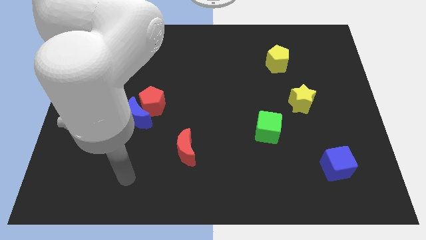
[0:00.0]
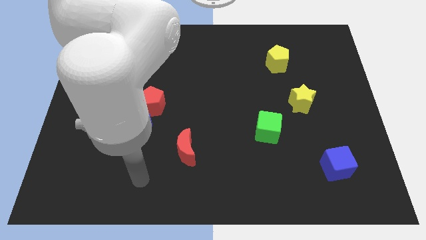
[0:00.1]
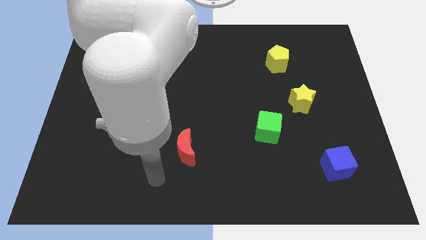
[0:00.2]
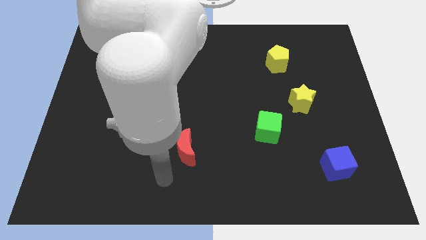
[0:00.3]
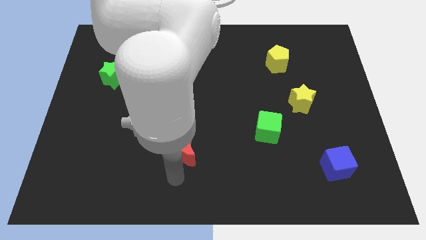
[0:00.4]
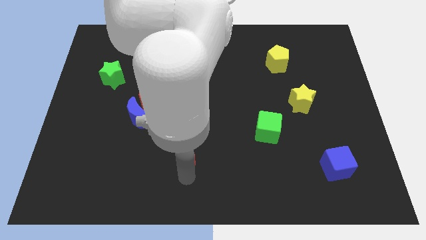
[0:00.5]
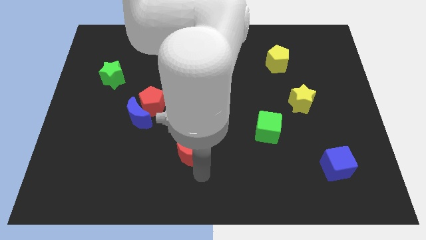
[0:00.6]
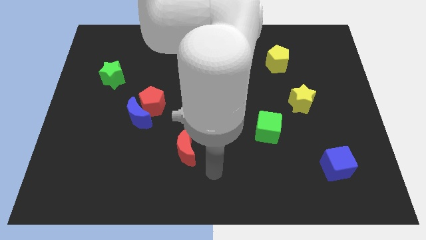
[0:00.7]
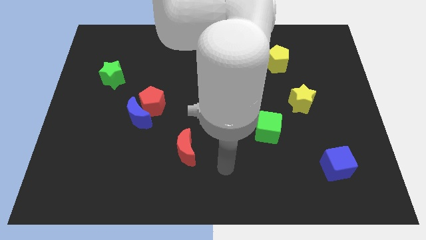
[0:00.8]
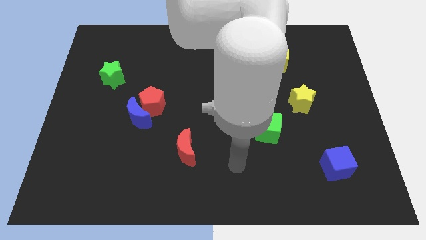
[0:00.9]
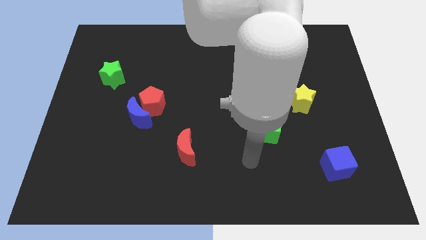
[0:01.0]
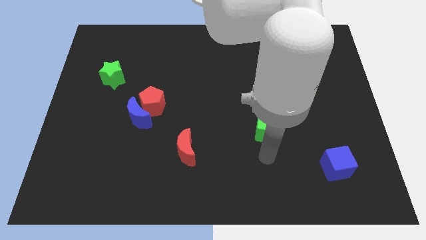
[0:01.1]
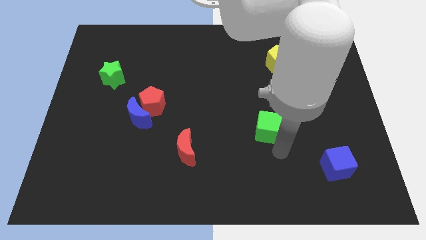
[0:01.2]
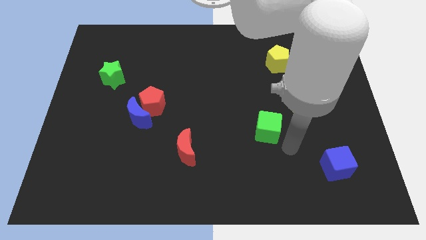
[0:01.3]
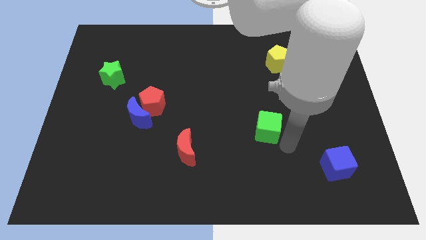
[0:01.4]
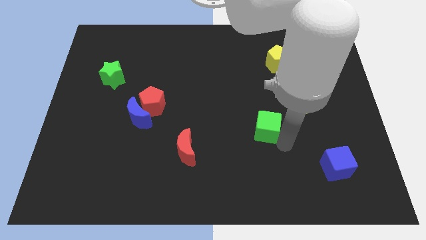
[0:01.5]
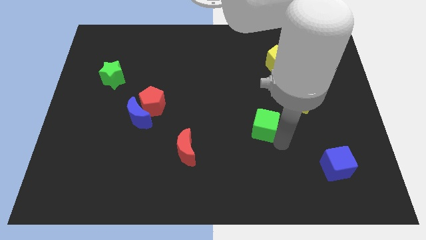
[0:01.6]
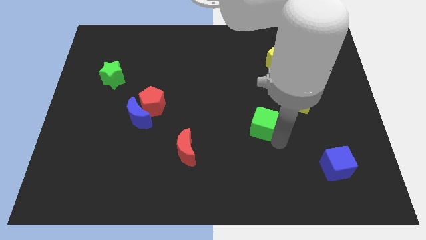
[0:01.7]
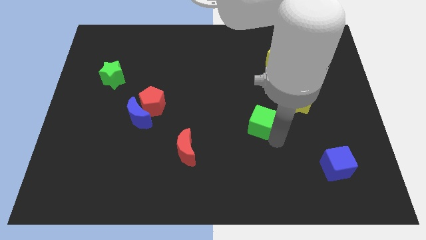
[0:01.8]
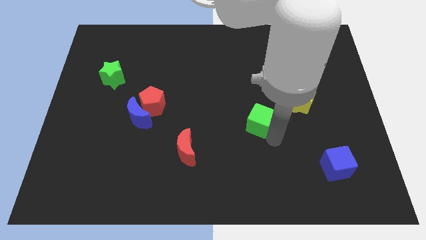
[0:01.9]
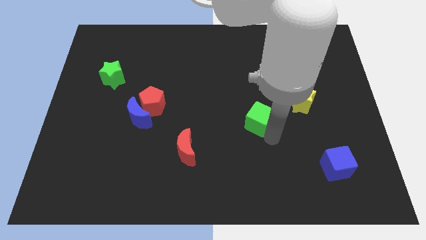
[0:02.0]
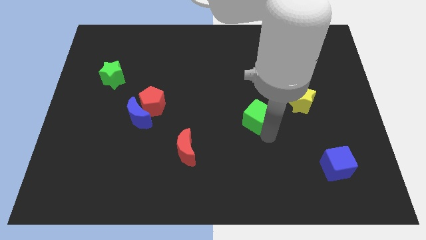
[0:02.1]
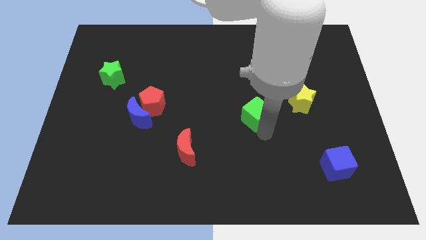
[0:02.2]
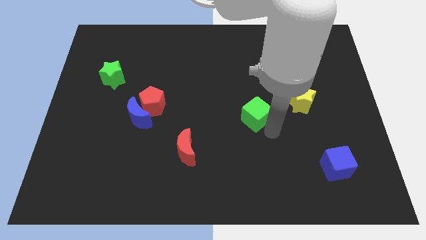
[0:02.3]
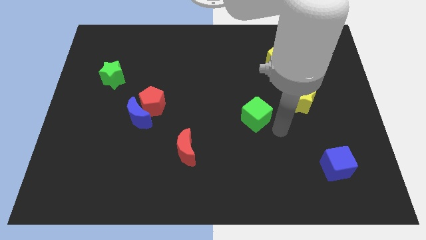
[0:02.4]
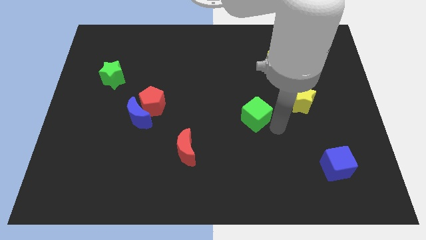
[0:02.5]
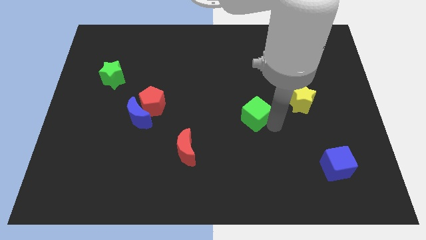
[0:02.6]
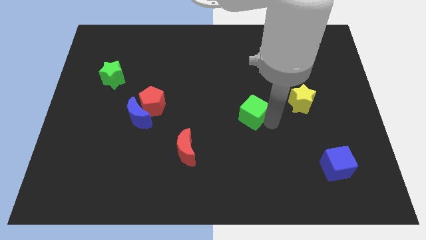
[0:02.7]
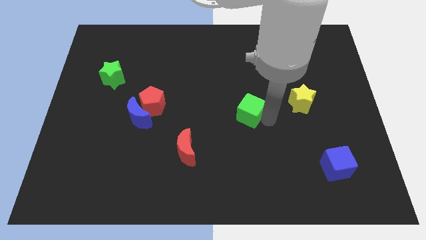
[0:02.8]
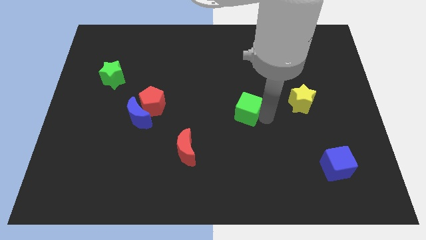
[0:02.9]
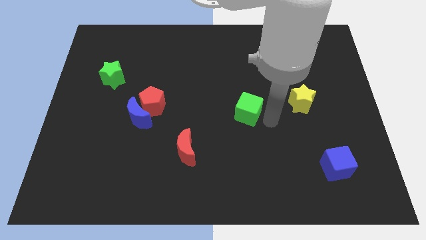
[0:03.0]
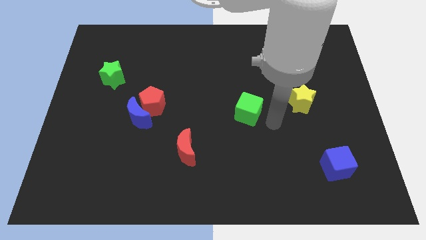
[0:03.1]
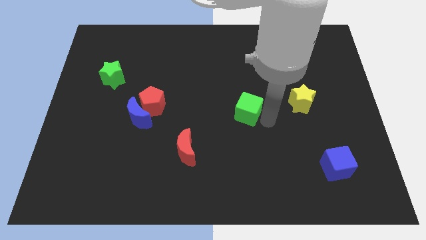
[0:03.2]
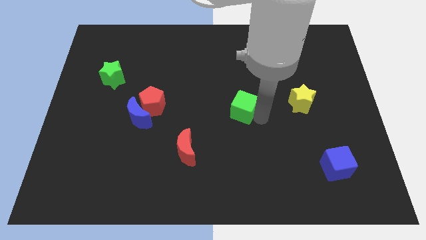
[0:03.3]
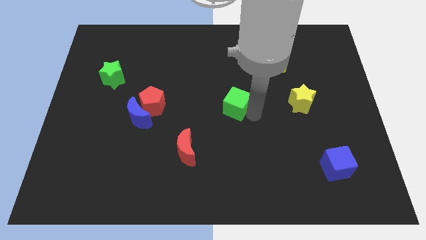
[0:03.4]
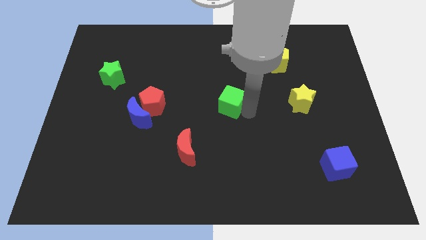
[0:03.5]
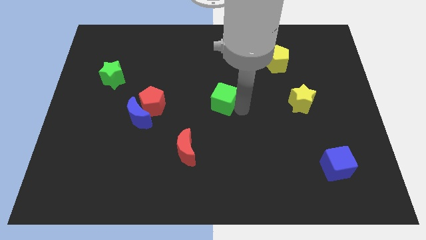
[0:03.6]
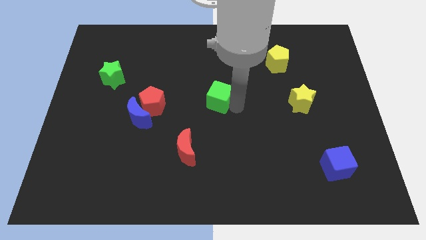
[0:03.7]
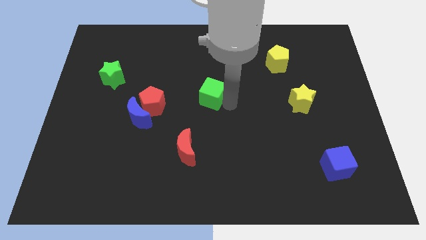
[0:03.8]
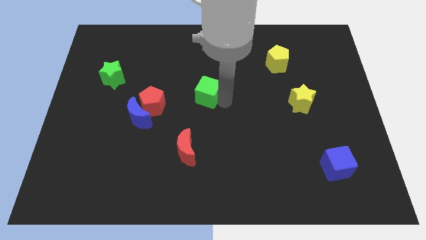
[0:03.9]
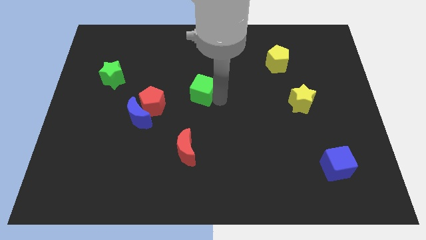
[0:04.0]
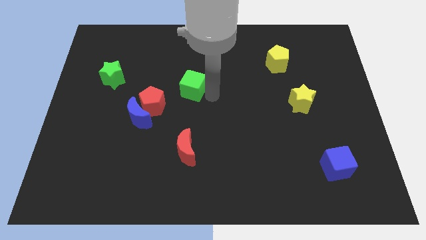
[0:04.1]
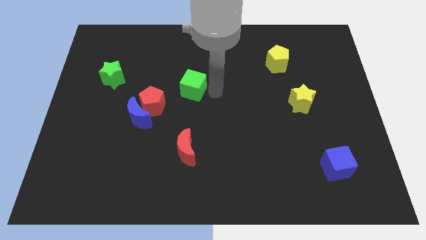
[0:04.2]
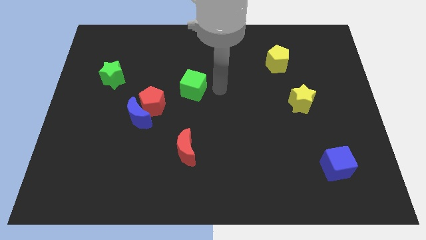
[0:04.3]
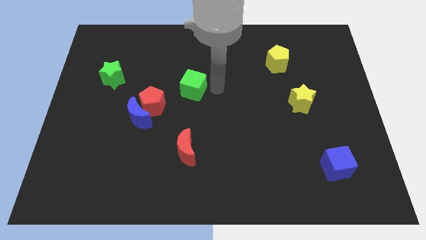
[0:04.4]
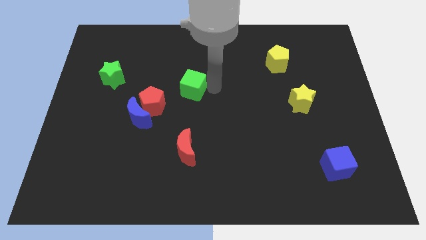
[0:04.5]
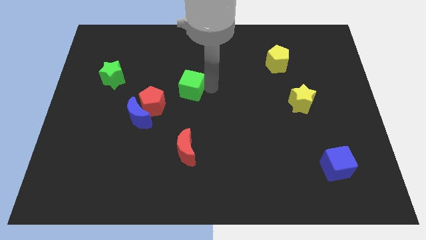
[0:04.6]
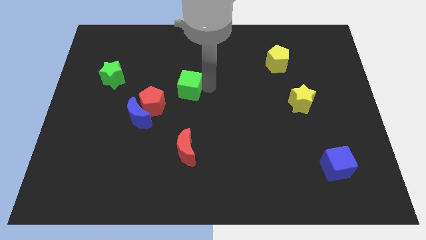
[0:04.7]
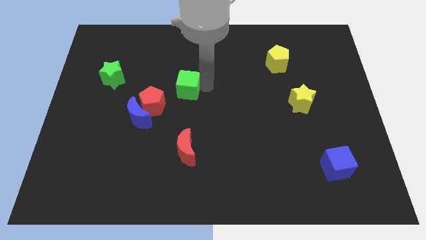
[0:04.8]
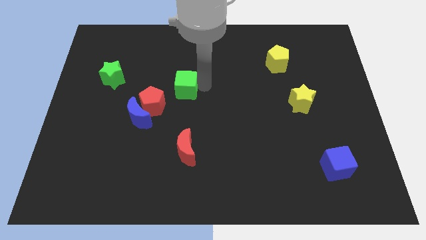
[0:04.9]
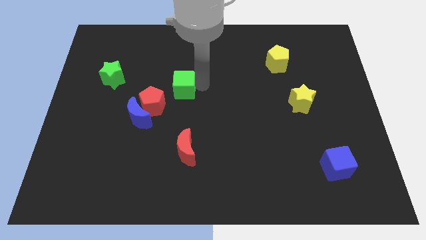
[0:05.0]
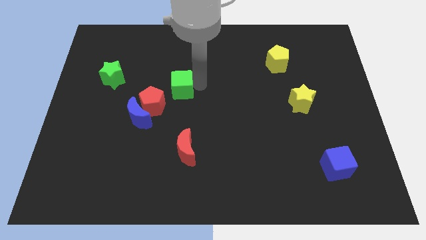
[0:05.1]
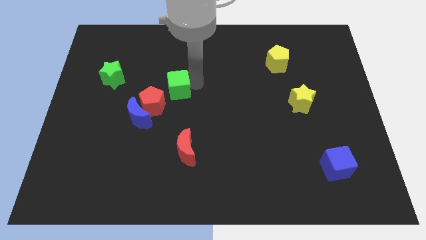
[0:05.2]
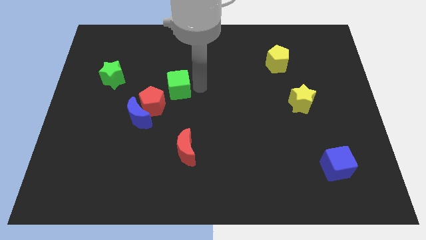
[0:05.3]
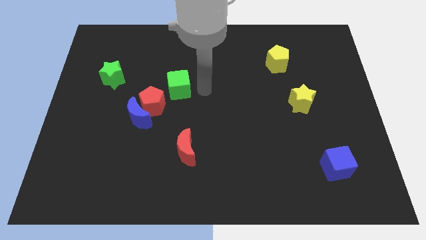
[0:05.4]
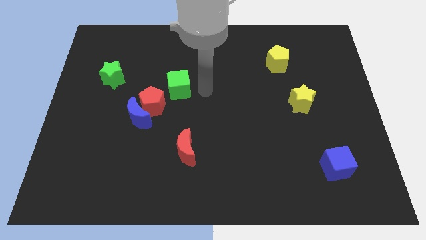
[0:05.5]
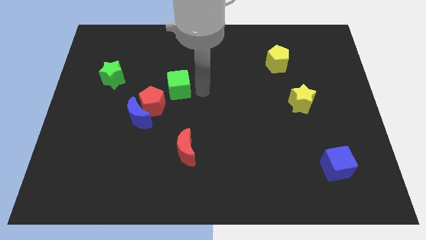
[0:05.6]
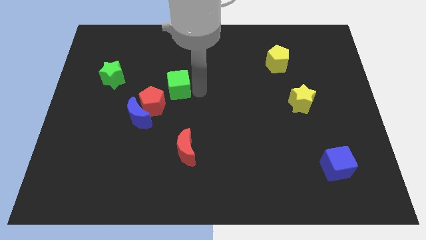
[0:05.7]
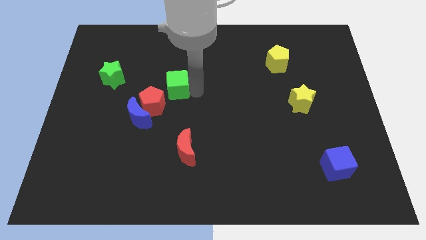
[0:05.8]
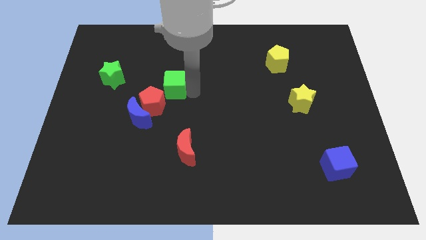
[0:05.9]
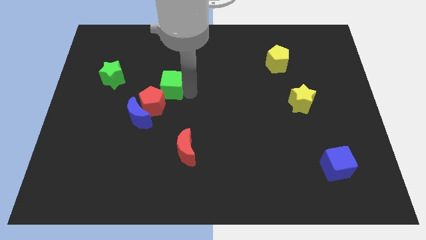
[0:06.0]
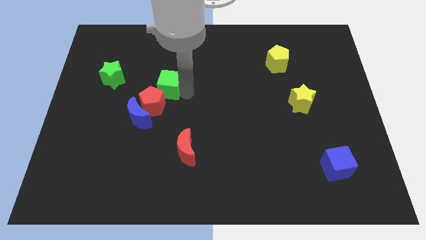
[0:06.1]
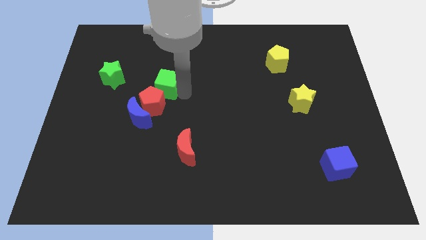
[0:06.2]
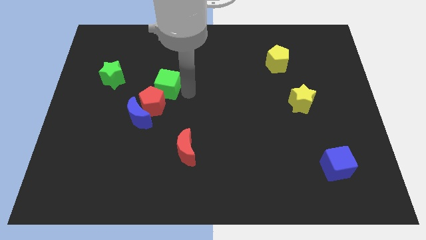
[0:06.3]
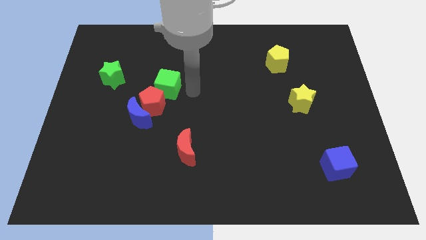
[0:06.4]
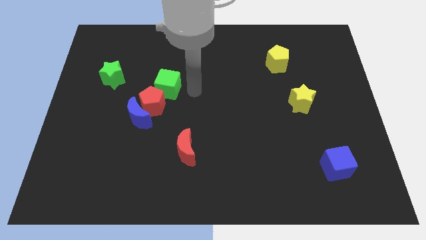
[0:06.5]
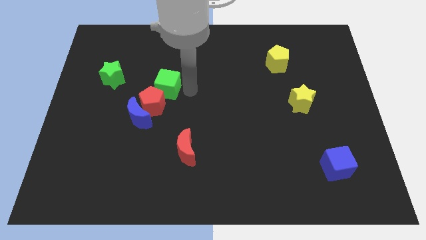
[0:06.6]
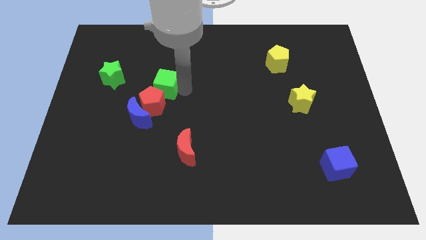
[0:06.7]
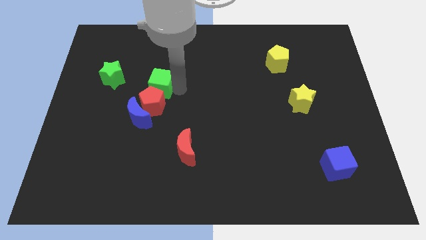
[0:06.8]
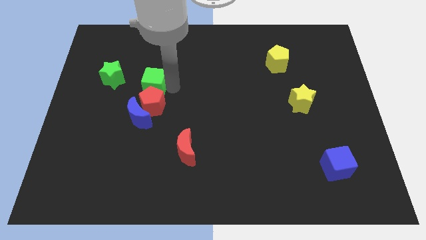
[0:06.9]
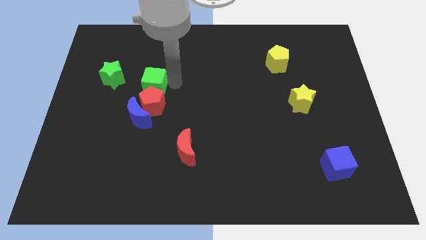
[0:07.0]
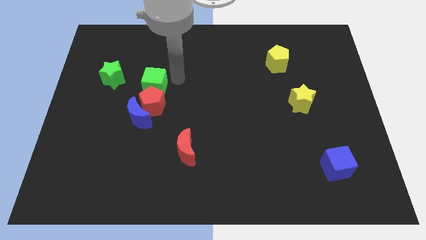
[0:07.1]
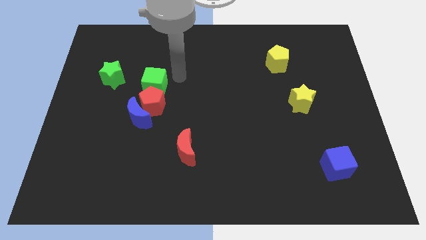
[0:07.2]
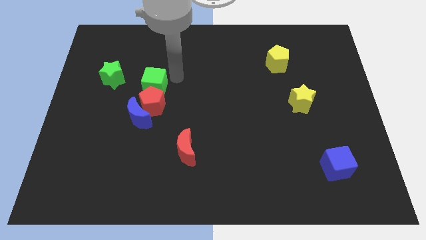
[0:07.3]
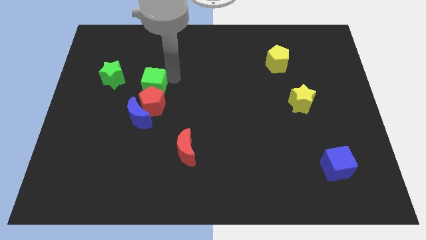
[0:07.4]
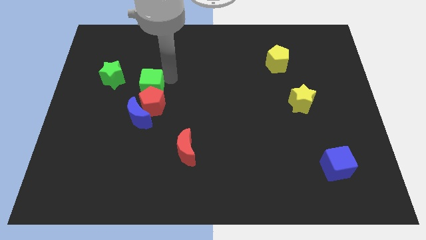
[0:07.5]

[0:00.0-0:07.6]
move the green cube to the bottom right of the green star
